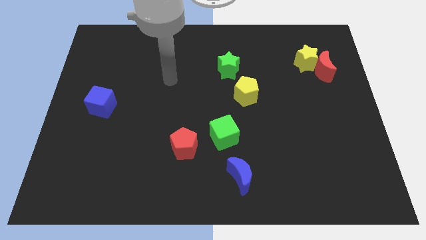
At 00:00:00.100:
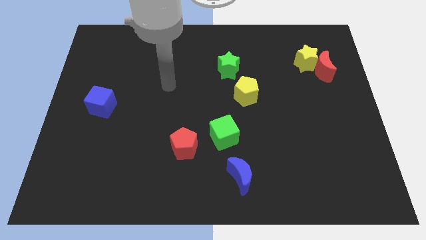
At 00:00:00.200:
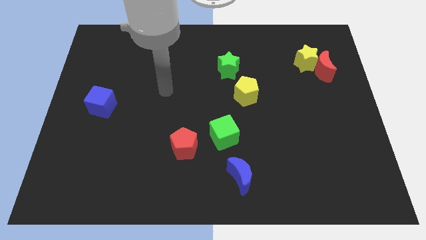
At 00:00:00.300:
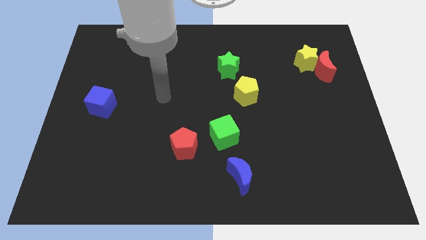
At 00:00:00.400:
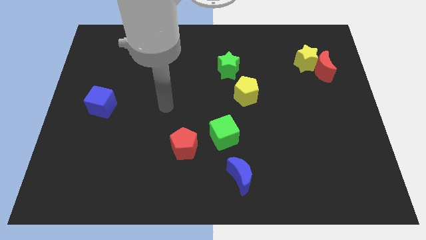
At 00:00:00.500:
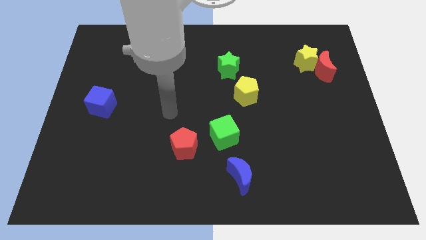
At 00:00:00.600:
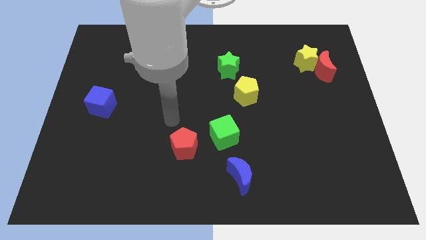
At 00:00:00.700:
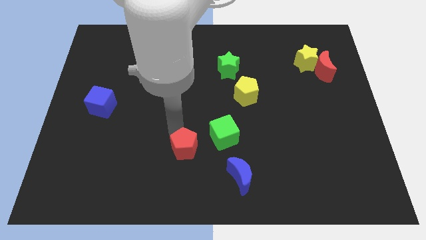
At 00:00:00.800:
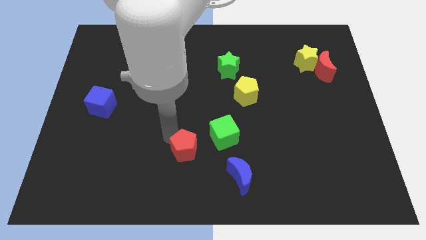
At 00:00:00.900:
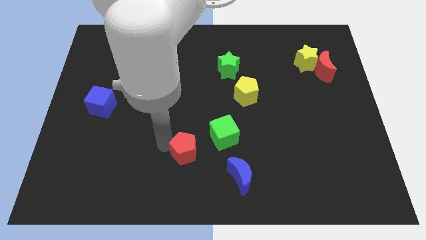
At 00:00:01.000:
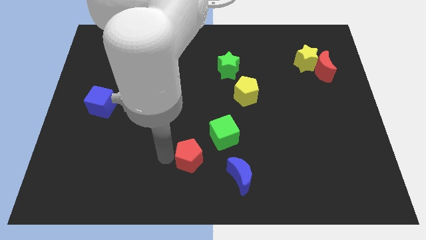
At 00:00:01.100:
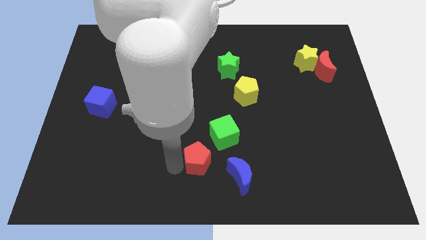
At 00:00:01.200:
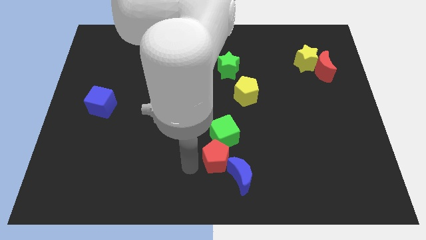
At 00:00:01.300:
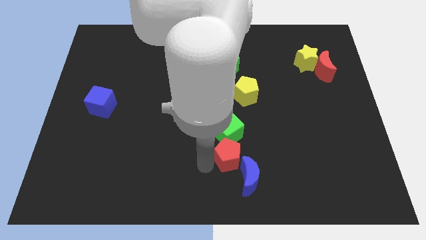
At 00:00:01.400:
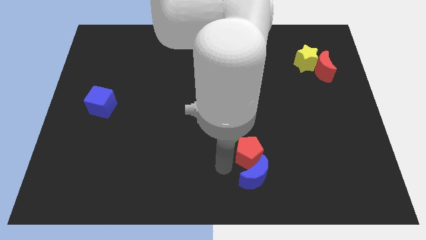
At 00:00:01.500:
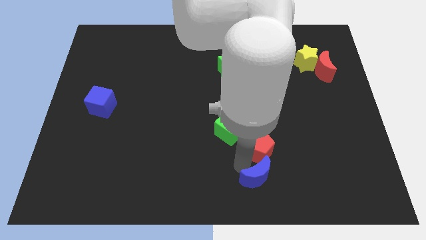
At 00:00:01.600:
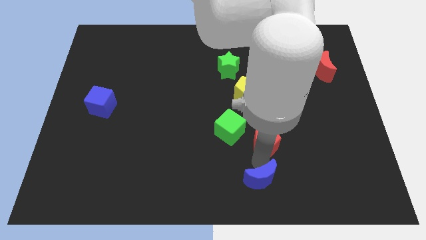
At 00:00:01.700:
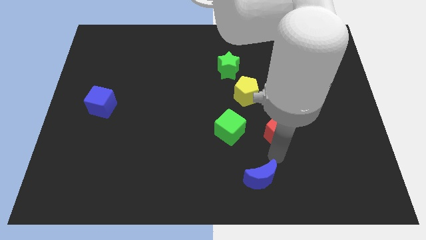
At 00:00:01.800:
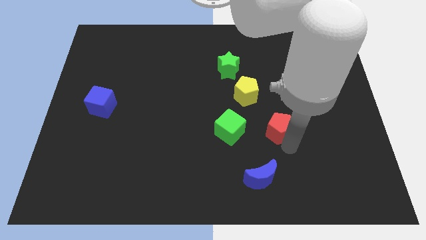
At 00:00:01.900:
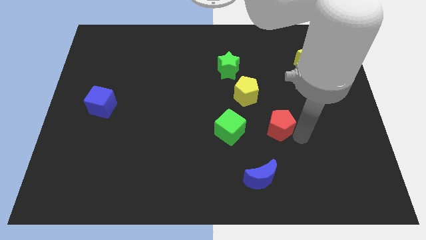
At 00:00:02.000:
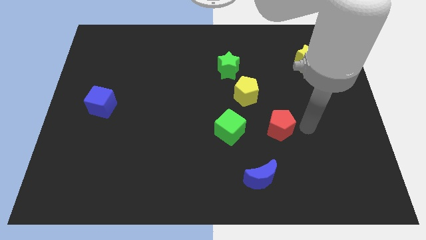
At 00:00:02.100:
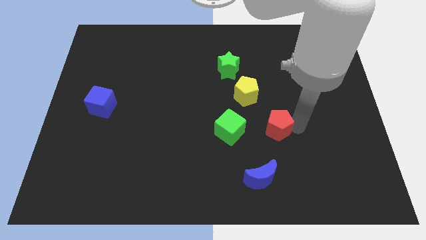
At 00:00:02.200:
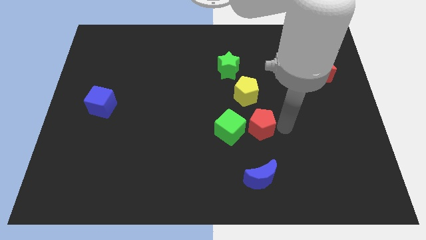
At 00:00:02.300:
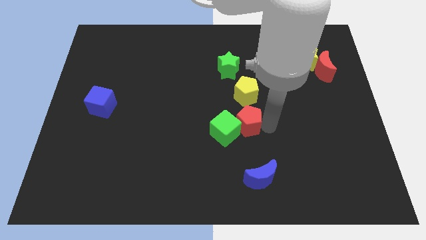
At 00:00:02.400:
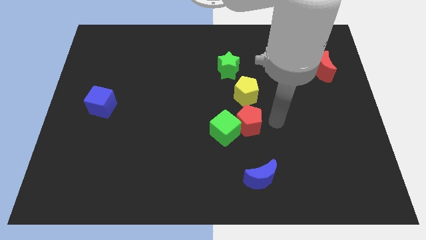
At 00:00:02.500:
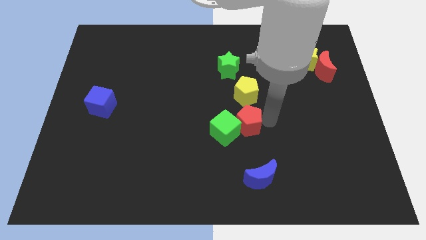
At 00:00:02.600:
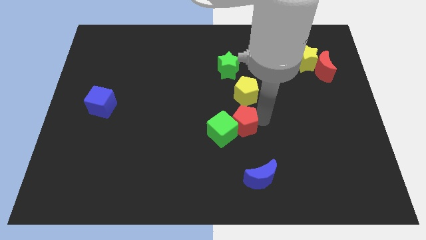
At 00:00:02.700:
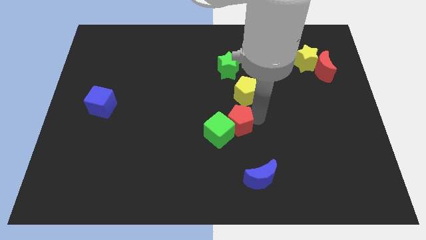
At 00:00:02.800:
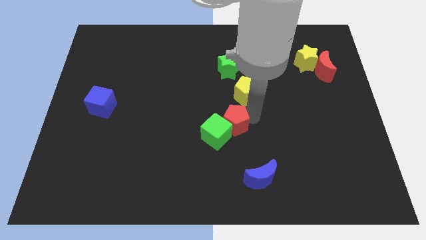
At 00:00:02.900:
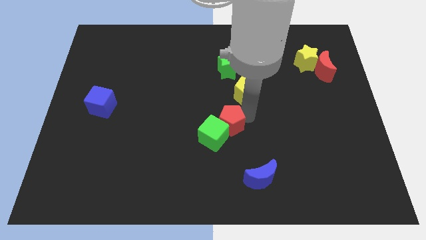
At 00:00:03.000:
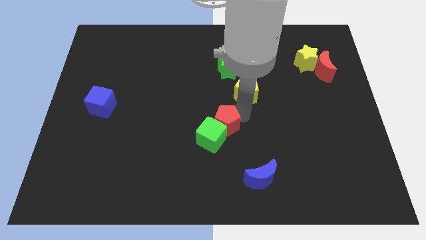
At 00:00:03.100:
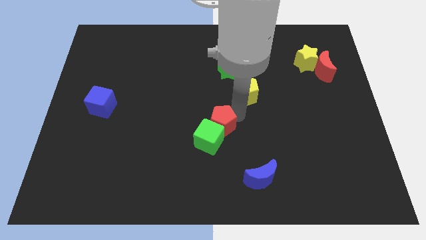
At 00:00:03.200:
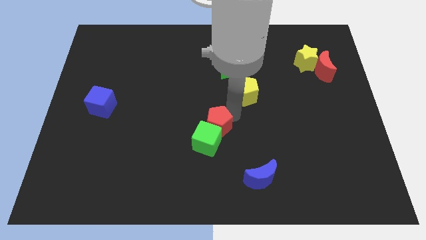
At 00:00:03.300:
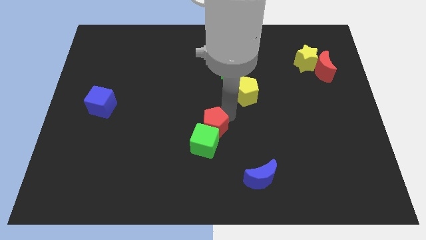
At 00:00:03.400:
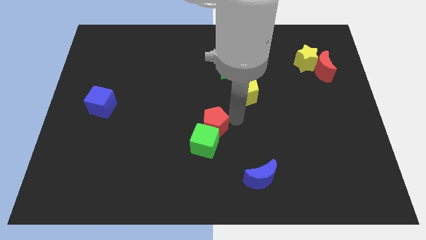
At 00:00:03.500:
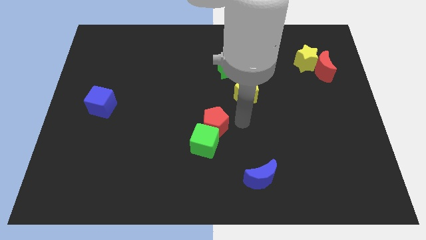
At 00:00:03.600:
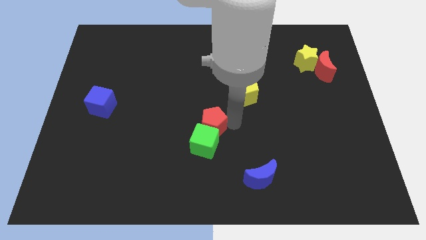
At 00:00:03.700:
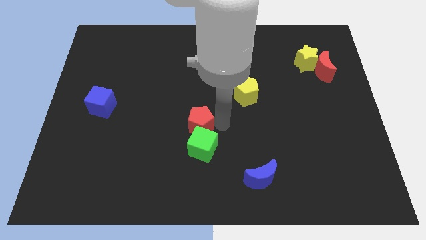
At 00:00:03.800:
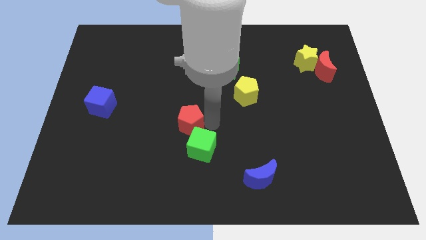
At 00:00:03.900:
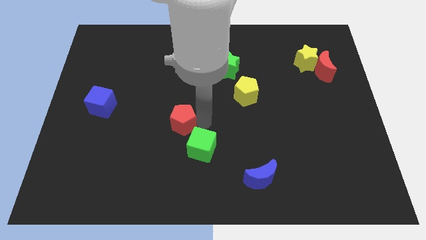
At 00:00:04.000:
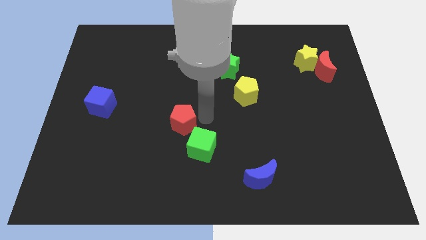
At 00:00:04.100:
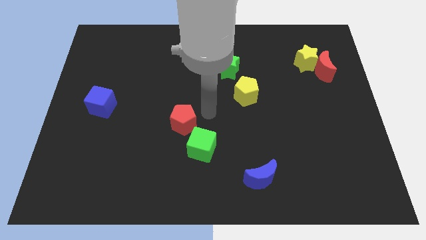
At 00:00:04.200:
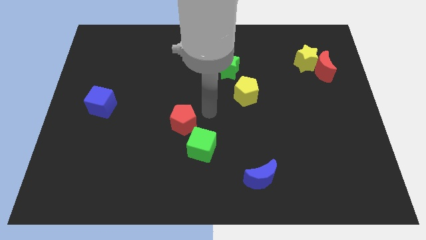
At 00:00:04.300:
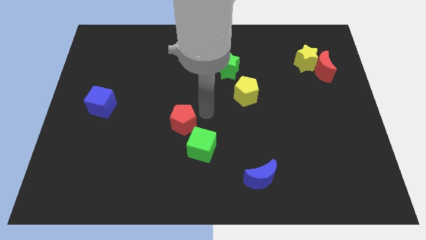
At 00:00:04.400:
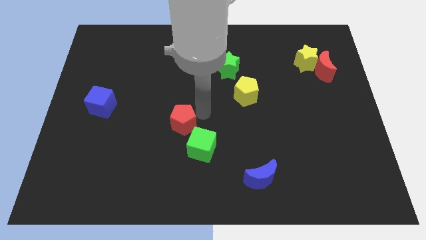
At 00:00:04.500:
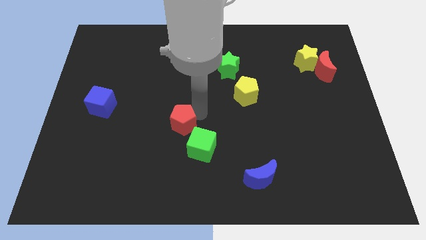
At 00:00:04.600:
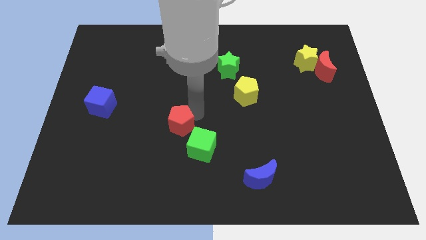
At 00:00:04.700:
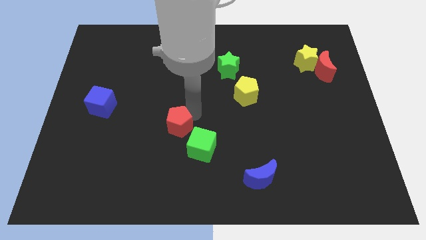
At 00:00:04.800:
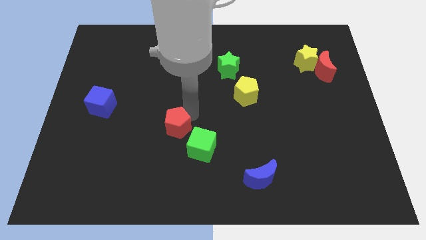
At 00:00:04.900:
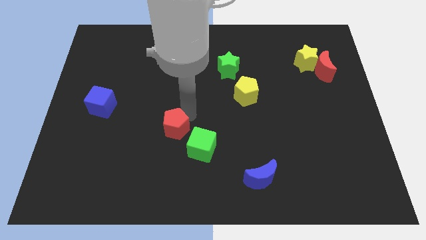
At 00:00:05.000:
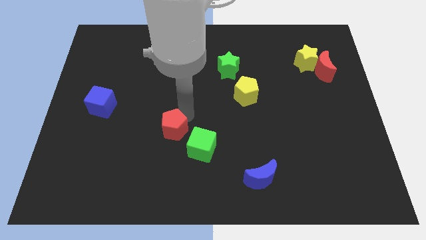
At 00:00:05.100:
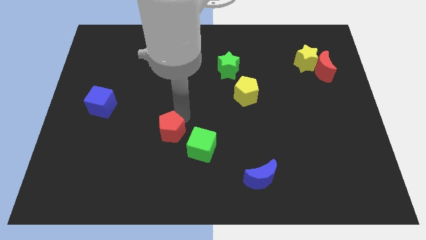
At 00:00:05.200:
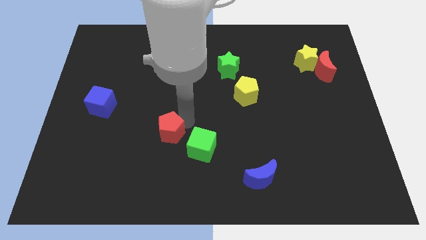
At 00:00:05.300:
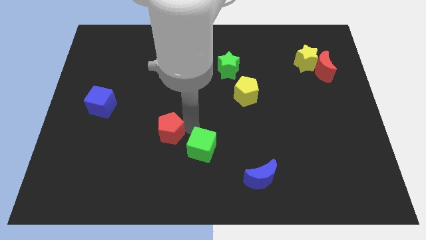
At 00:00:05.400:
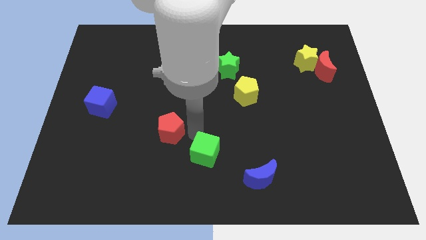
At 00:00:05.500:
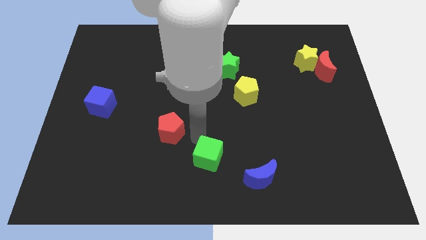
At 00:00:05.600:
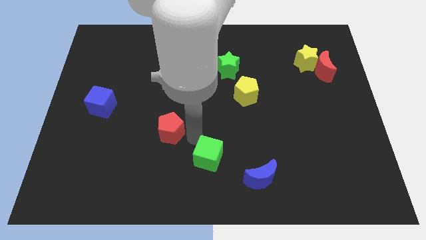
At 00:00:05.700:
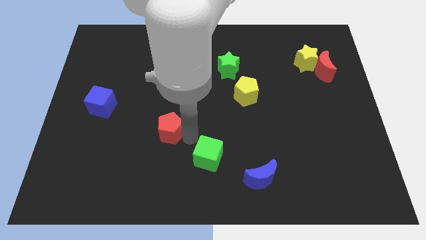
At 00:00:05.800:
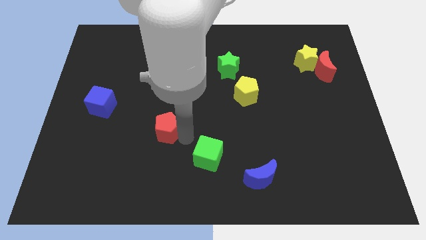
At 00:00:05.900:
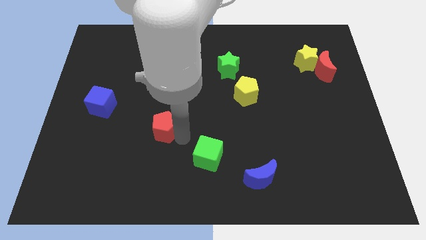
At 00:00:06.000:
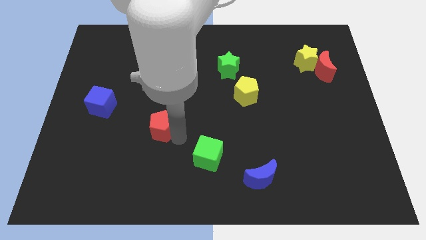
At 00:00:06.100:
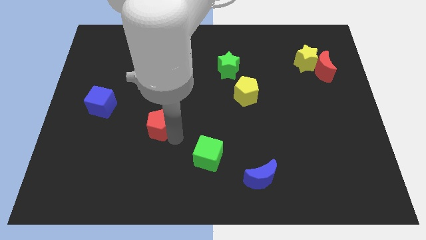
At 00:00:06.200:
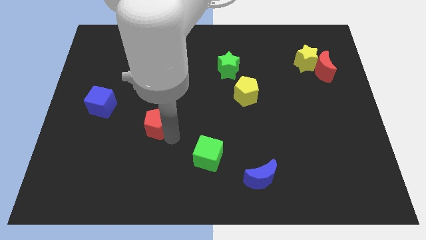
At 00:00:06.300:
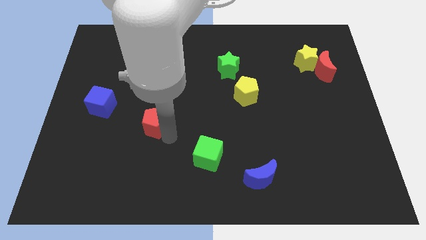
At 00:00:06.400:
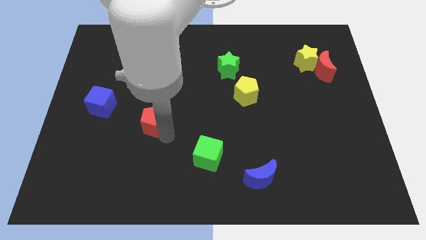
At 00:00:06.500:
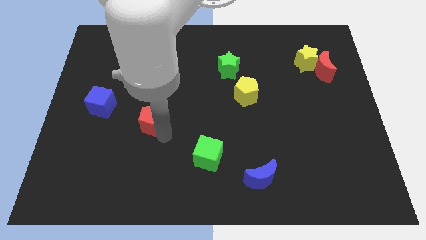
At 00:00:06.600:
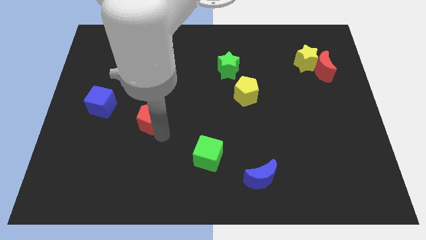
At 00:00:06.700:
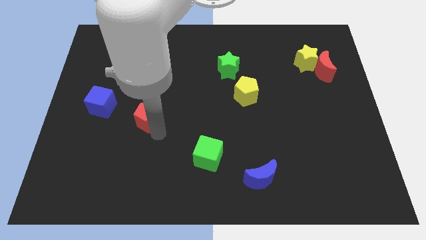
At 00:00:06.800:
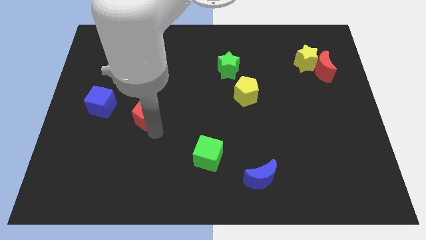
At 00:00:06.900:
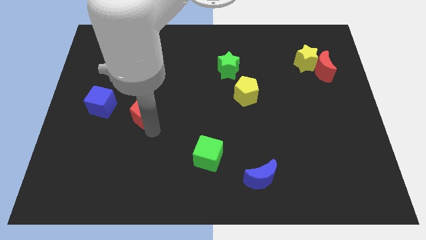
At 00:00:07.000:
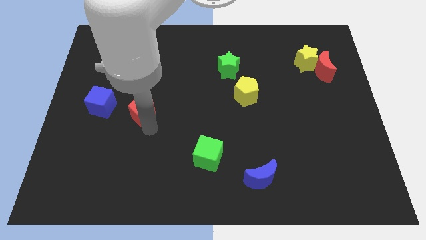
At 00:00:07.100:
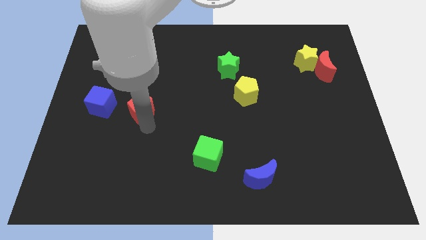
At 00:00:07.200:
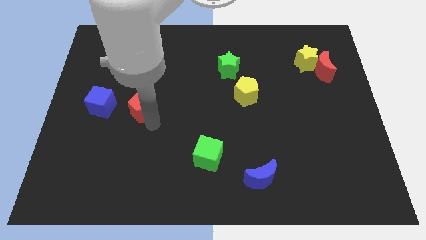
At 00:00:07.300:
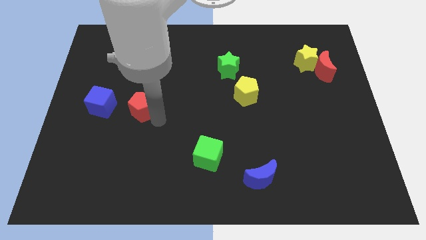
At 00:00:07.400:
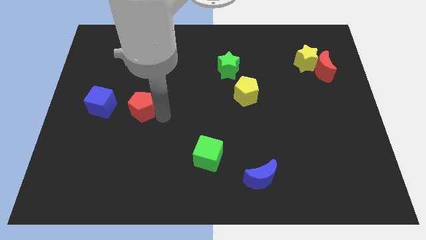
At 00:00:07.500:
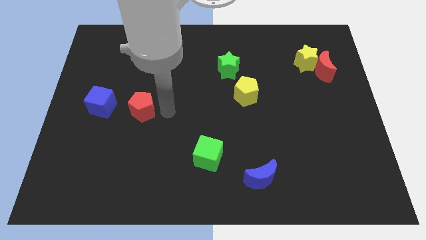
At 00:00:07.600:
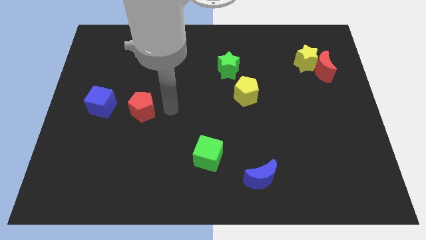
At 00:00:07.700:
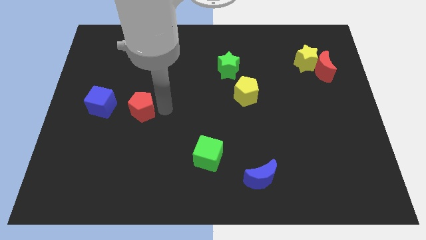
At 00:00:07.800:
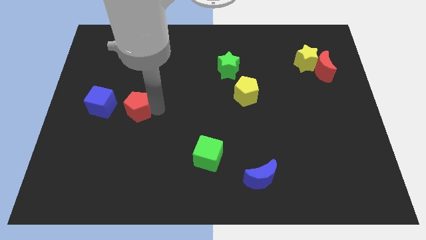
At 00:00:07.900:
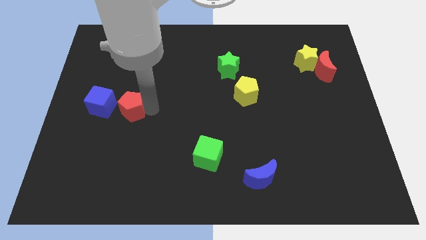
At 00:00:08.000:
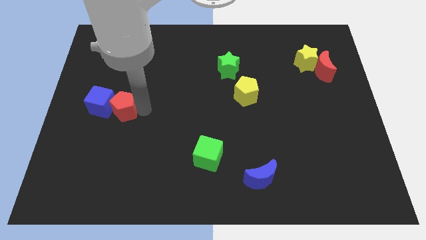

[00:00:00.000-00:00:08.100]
move the red pentagon towards the blue cube
